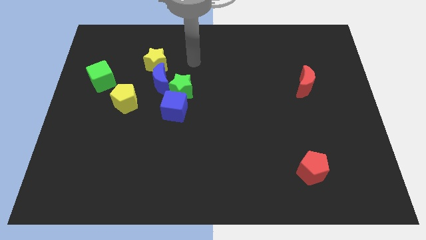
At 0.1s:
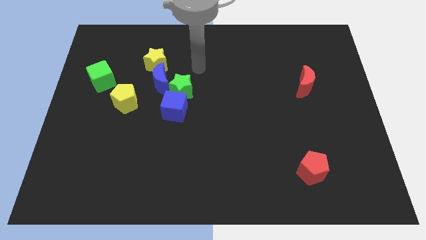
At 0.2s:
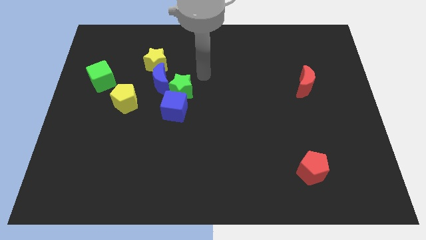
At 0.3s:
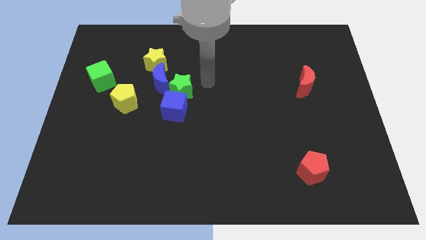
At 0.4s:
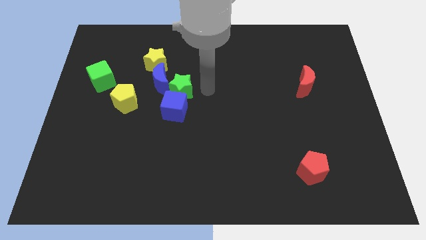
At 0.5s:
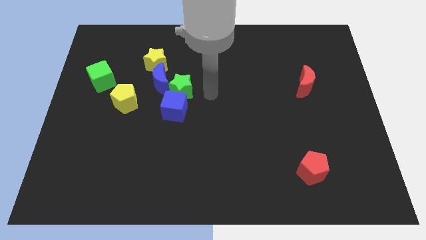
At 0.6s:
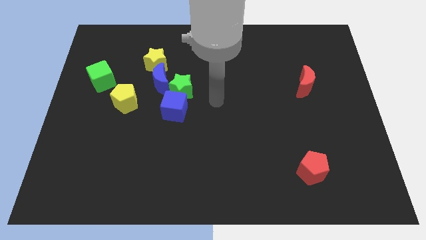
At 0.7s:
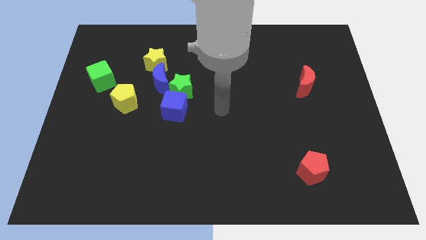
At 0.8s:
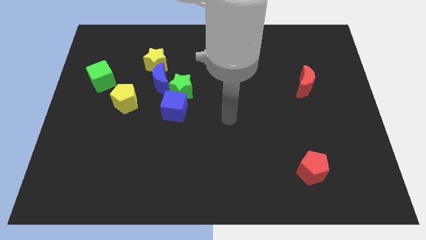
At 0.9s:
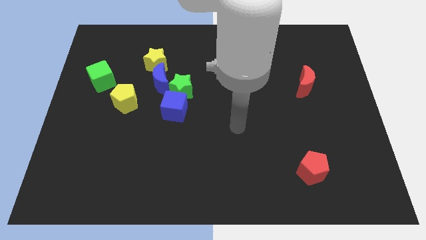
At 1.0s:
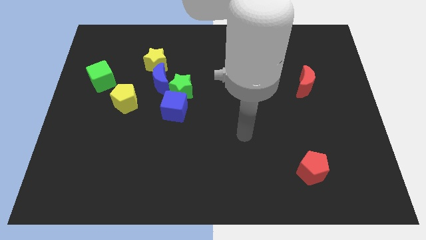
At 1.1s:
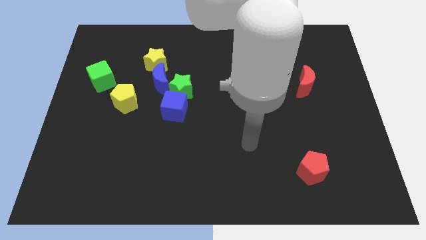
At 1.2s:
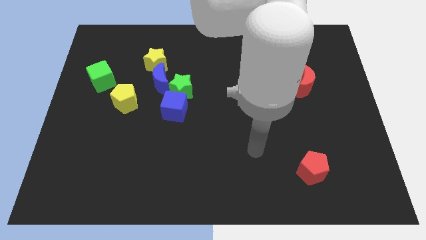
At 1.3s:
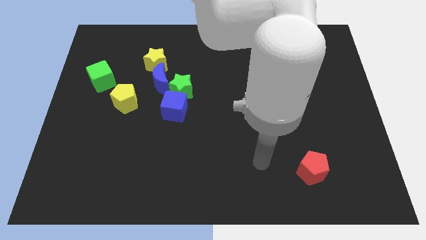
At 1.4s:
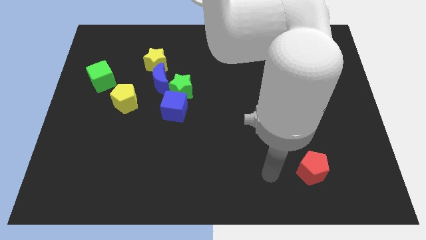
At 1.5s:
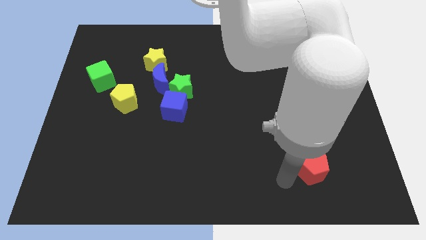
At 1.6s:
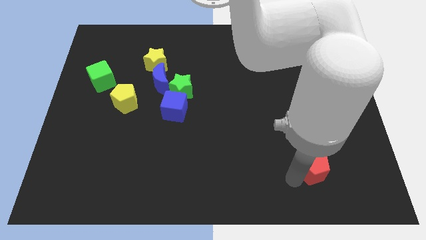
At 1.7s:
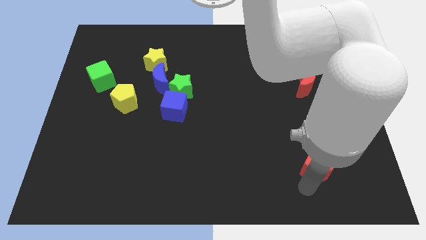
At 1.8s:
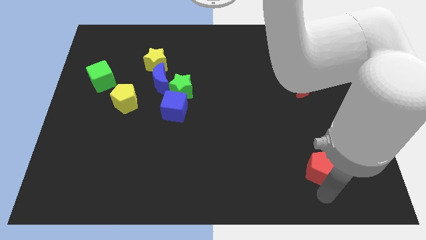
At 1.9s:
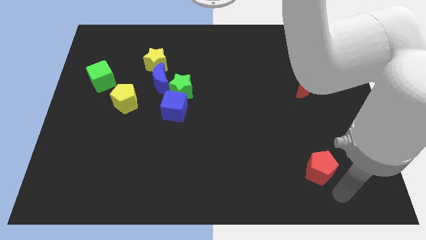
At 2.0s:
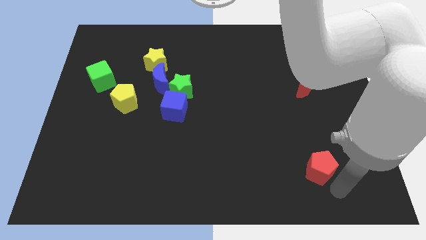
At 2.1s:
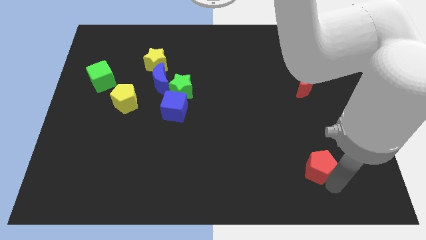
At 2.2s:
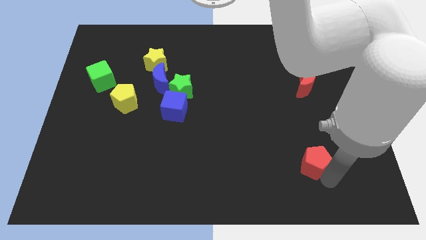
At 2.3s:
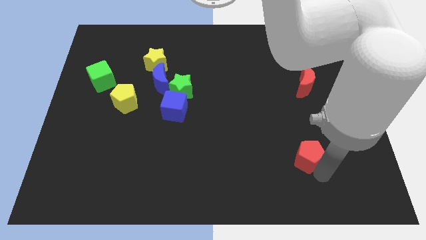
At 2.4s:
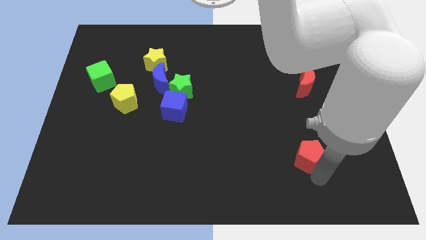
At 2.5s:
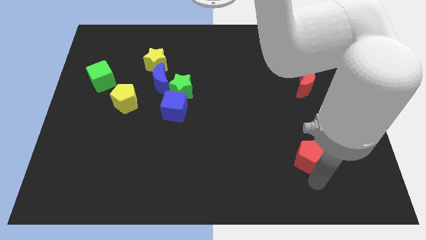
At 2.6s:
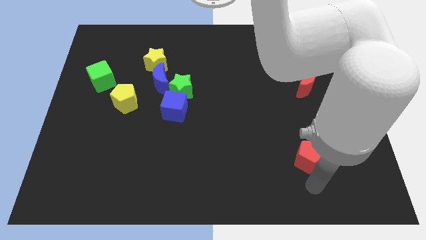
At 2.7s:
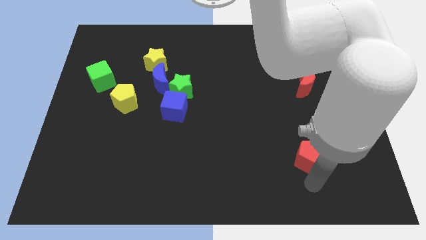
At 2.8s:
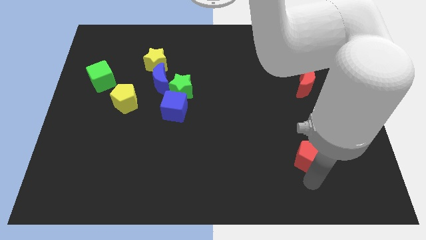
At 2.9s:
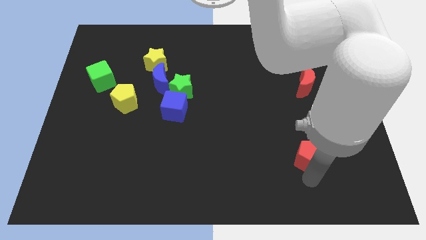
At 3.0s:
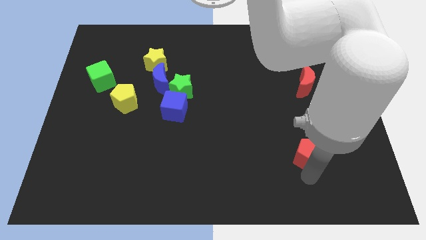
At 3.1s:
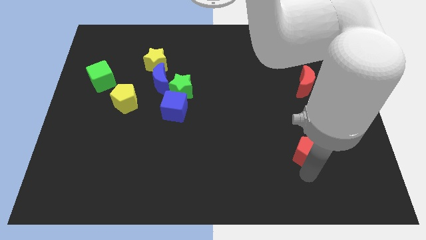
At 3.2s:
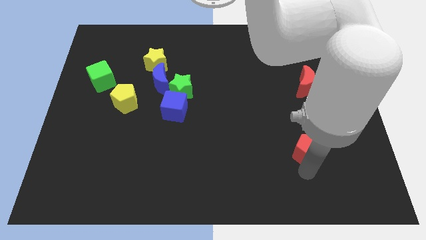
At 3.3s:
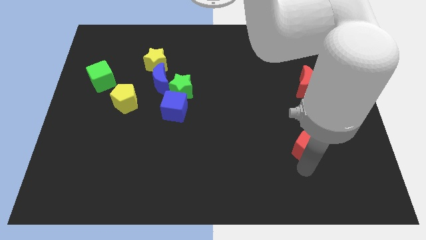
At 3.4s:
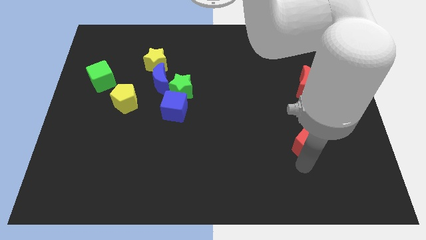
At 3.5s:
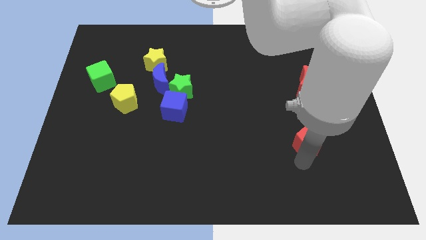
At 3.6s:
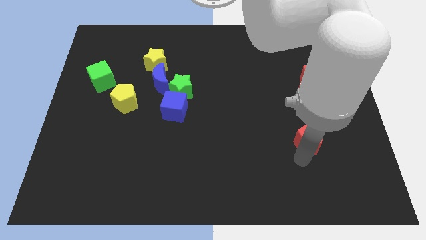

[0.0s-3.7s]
push the red pentagon slightly upwards

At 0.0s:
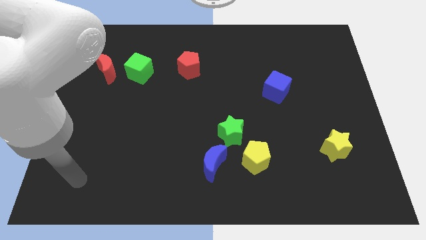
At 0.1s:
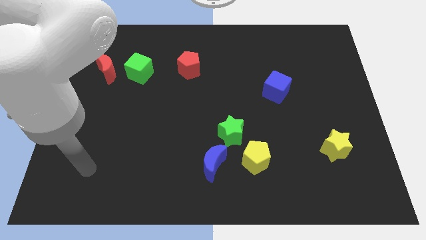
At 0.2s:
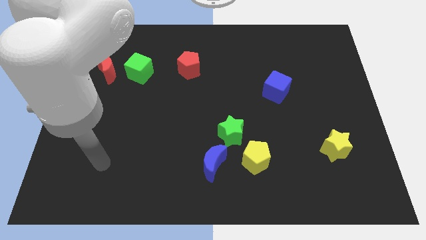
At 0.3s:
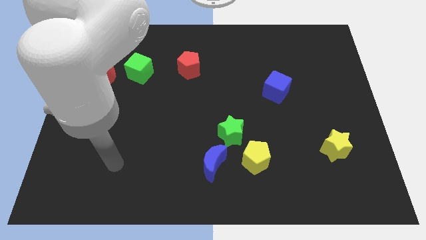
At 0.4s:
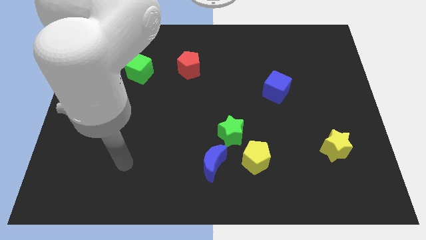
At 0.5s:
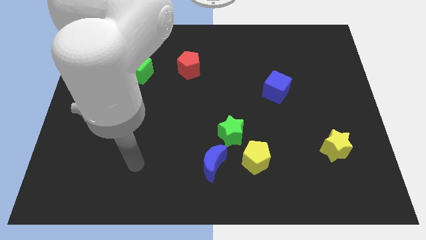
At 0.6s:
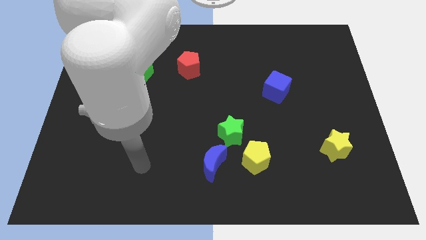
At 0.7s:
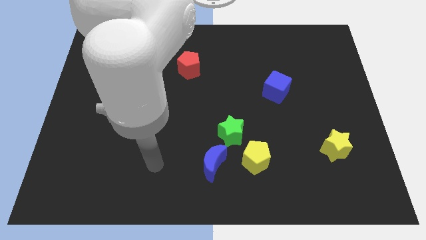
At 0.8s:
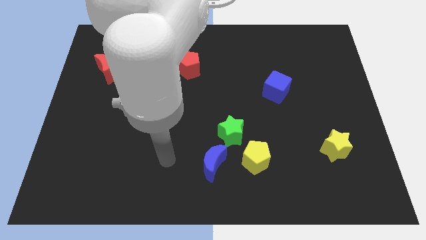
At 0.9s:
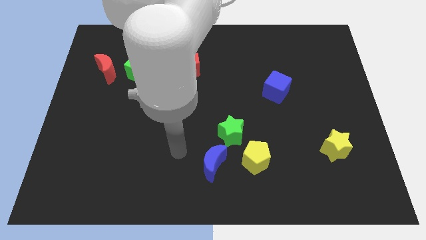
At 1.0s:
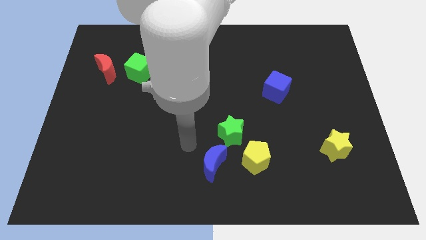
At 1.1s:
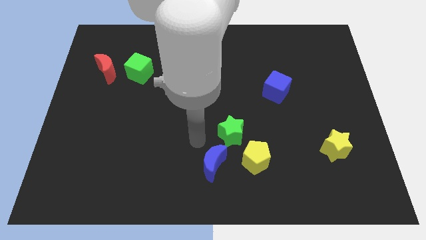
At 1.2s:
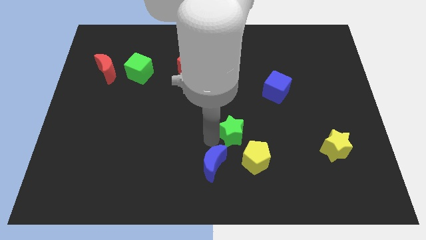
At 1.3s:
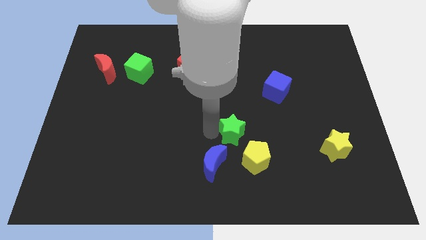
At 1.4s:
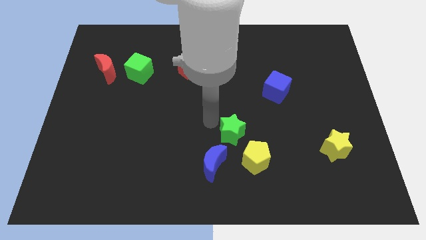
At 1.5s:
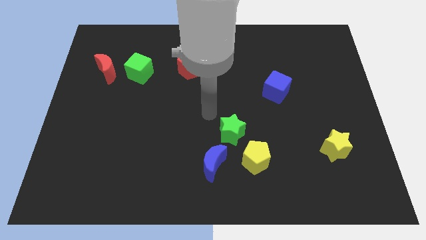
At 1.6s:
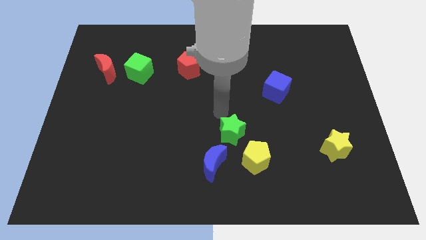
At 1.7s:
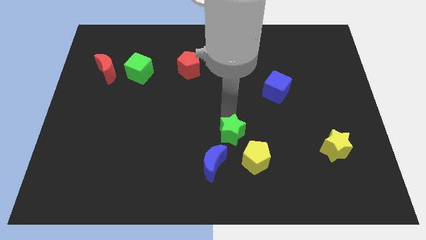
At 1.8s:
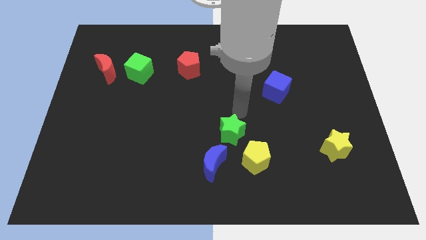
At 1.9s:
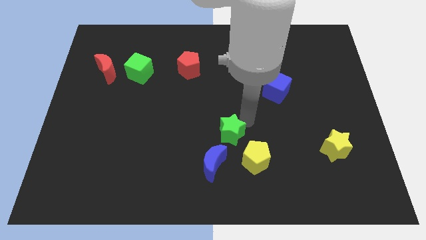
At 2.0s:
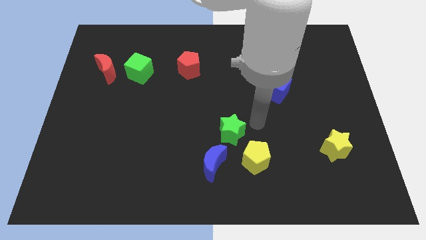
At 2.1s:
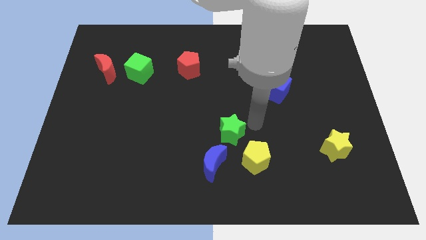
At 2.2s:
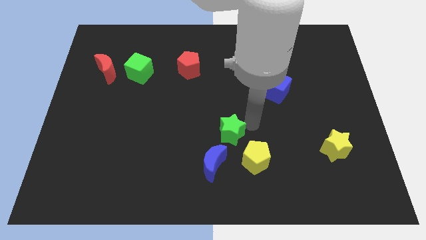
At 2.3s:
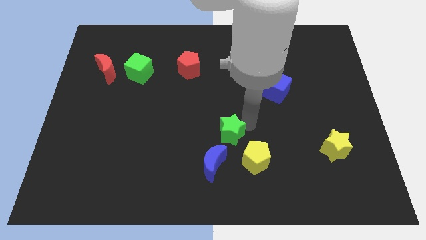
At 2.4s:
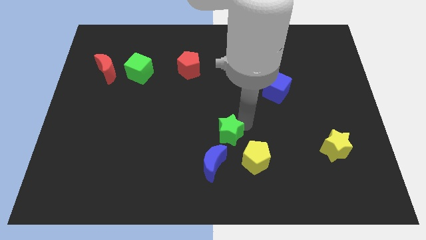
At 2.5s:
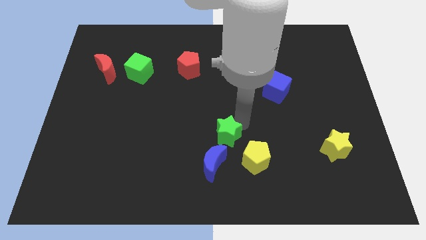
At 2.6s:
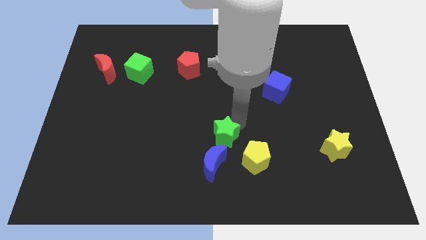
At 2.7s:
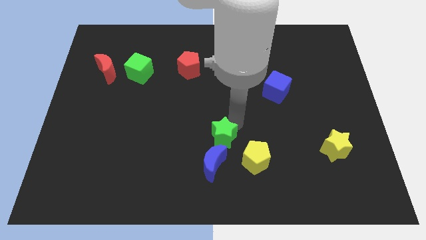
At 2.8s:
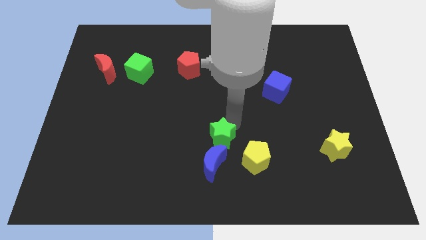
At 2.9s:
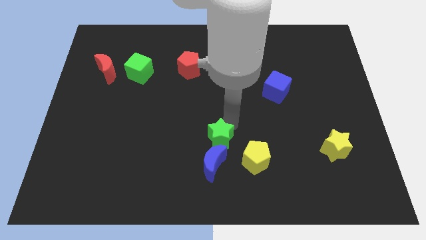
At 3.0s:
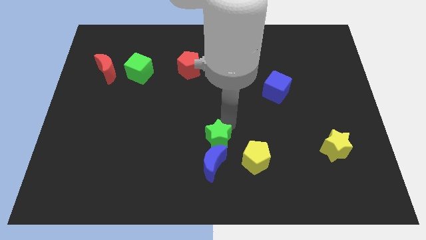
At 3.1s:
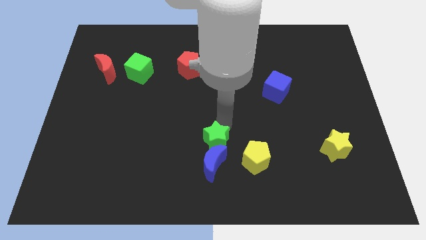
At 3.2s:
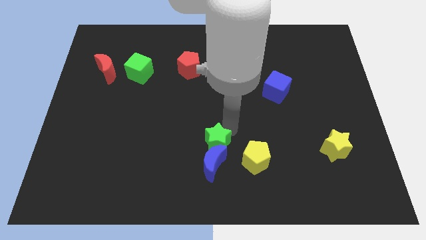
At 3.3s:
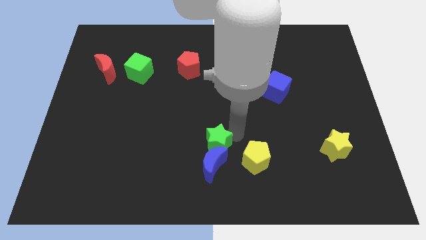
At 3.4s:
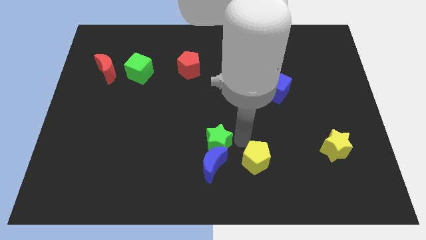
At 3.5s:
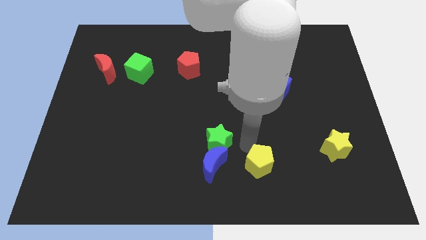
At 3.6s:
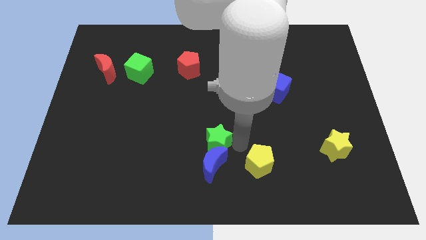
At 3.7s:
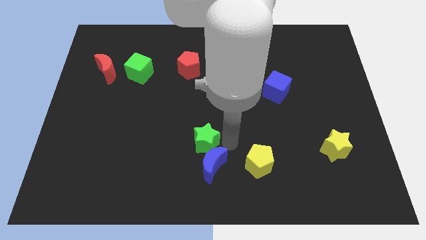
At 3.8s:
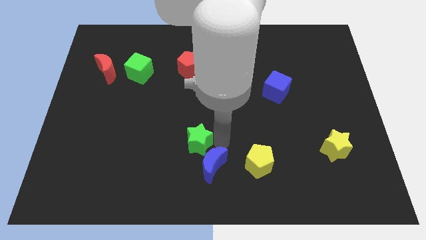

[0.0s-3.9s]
push the green star a little bit to the left

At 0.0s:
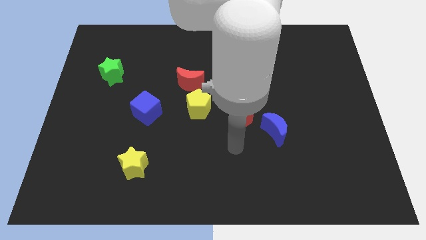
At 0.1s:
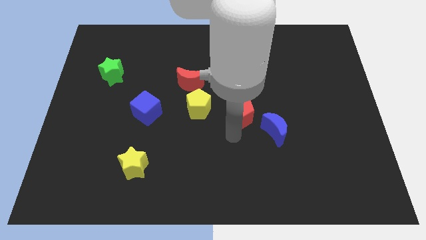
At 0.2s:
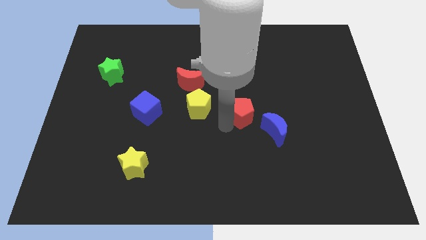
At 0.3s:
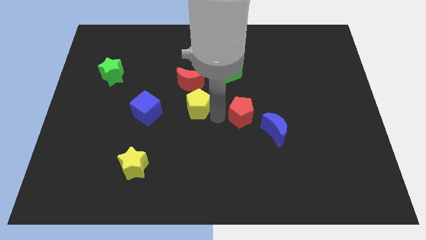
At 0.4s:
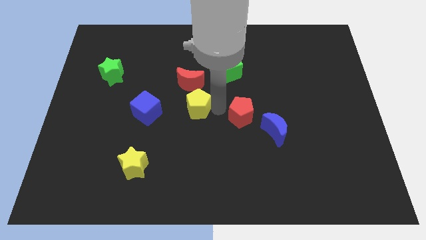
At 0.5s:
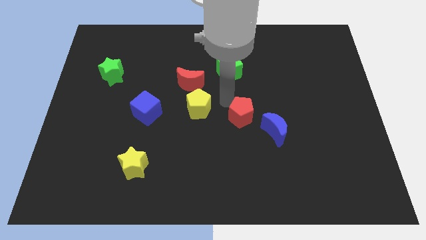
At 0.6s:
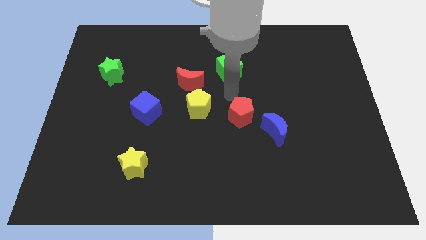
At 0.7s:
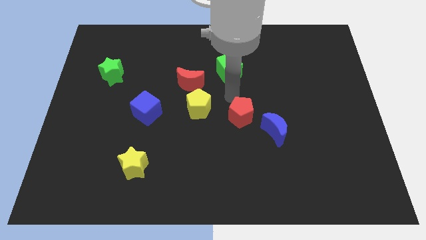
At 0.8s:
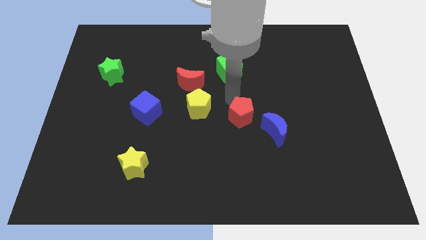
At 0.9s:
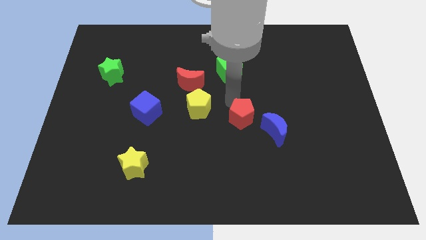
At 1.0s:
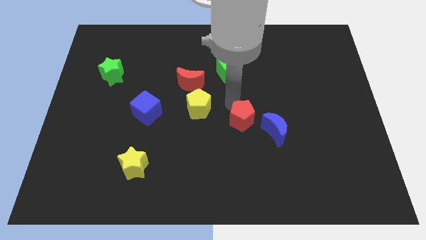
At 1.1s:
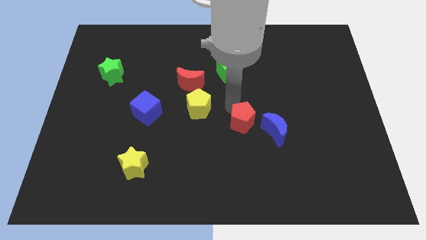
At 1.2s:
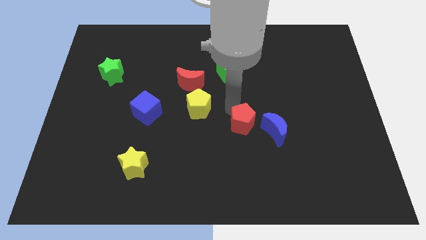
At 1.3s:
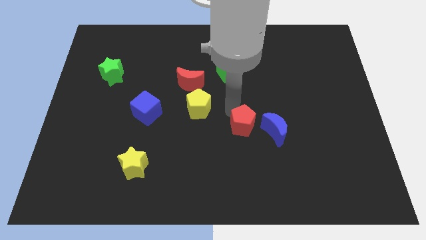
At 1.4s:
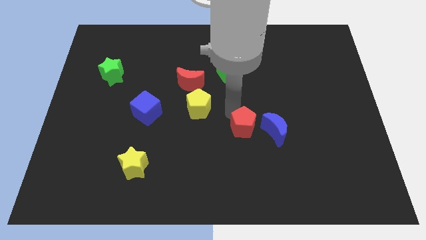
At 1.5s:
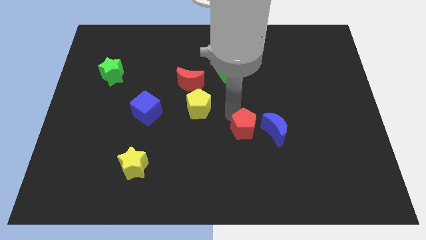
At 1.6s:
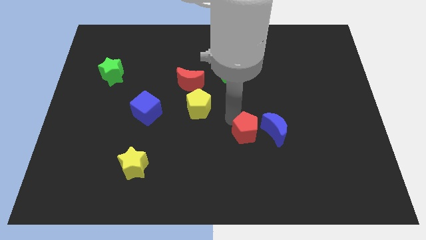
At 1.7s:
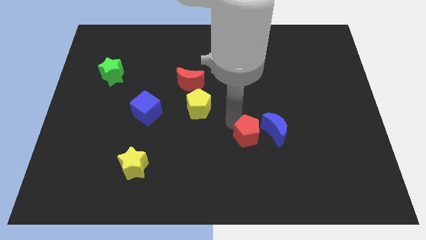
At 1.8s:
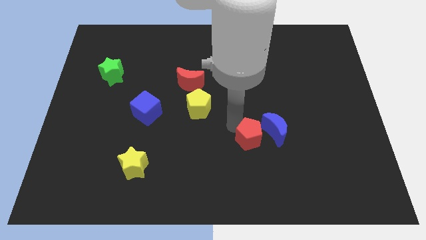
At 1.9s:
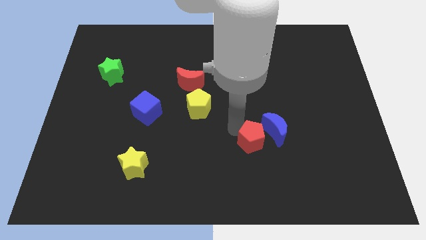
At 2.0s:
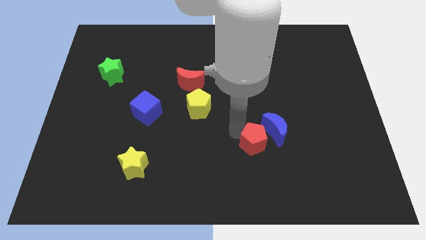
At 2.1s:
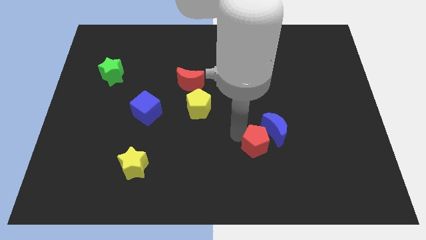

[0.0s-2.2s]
move the red pentagon a little downwards and then to the right
